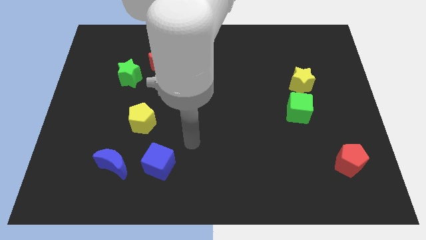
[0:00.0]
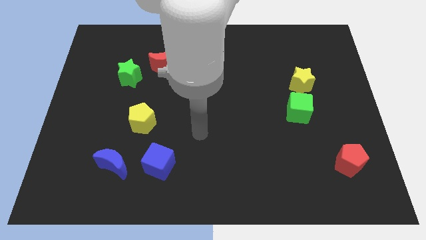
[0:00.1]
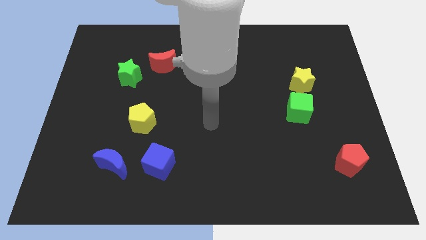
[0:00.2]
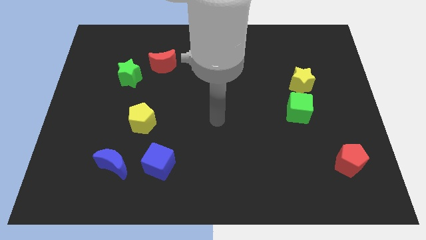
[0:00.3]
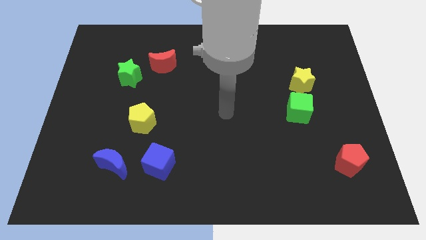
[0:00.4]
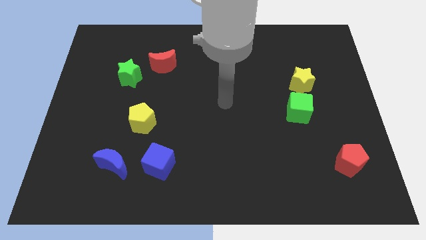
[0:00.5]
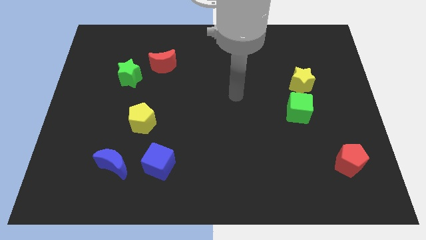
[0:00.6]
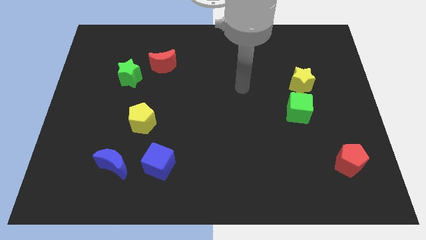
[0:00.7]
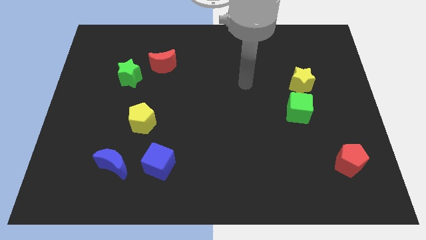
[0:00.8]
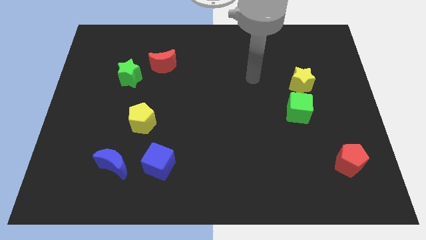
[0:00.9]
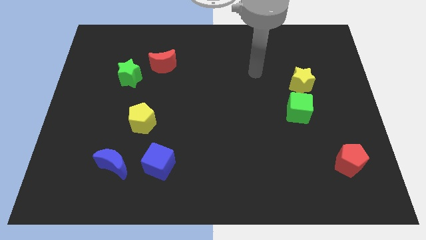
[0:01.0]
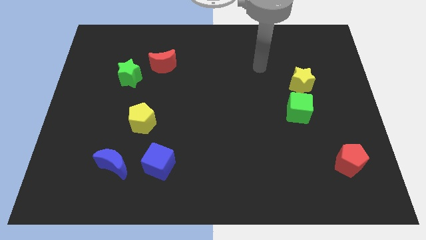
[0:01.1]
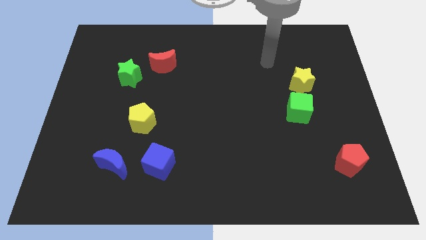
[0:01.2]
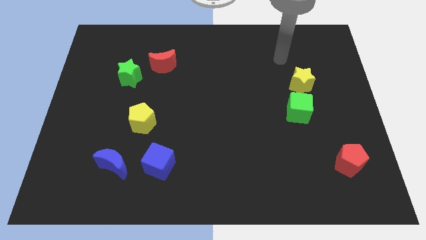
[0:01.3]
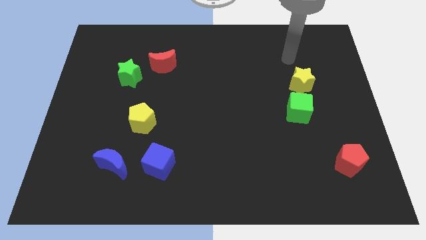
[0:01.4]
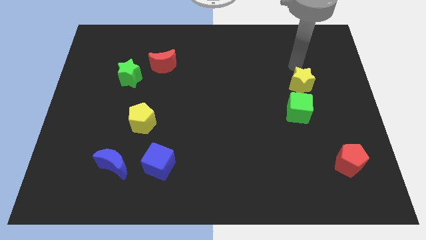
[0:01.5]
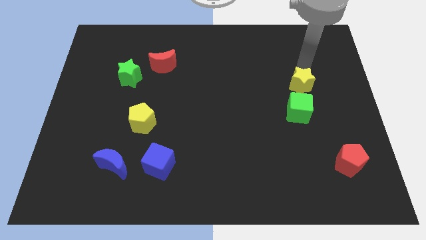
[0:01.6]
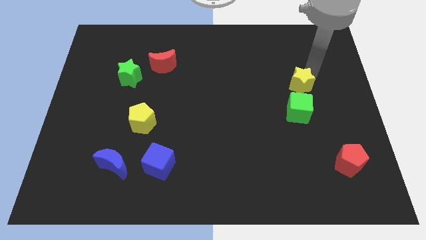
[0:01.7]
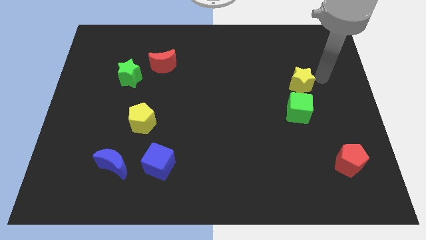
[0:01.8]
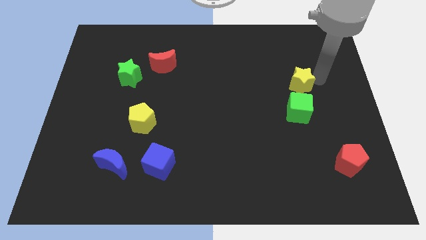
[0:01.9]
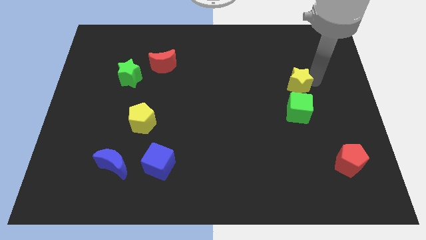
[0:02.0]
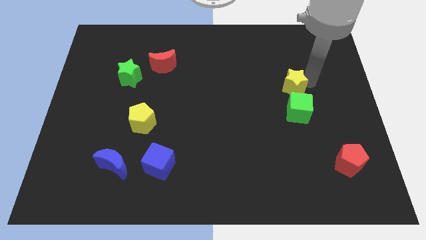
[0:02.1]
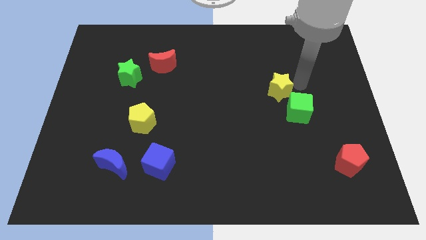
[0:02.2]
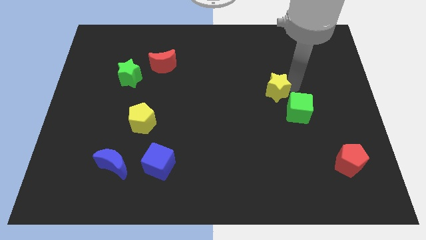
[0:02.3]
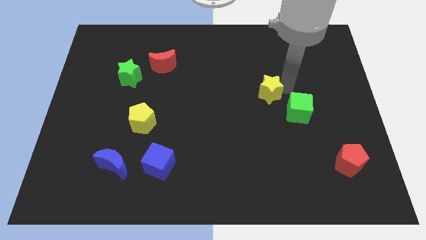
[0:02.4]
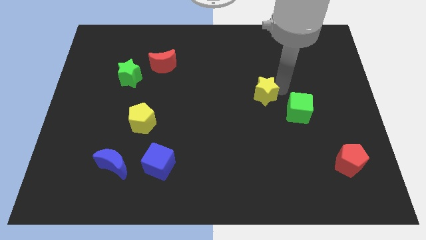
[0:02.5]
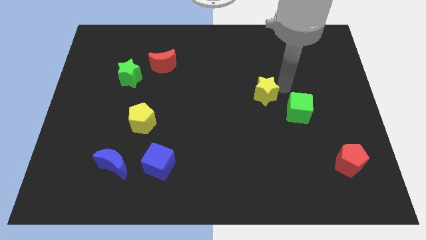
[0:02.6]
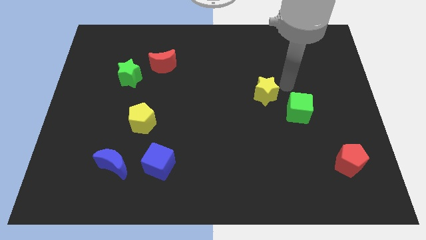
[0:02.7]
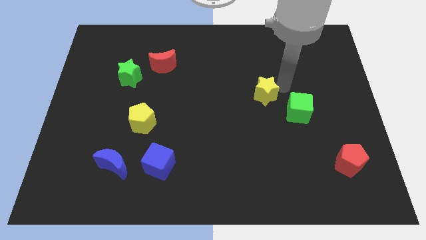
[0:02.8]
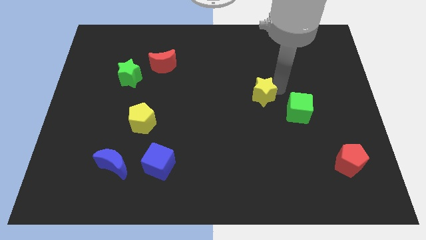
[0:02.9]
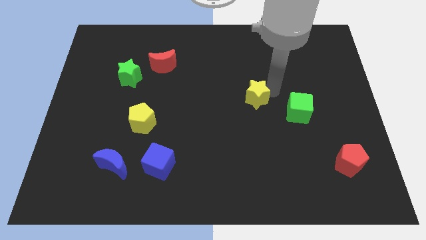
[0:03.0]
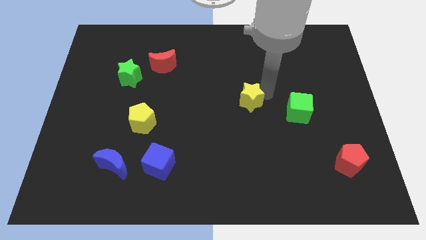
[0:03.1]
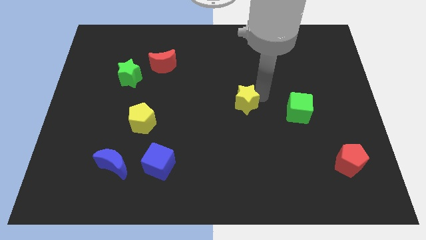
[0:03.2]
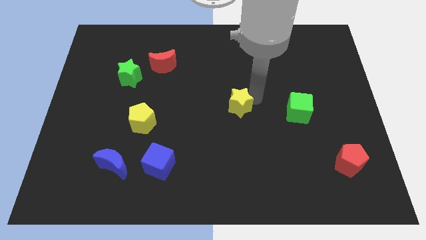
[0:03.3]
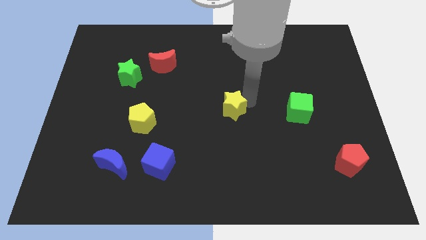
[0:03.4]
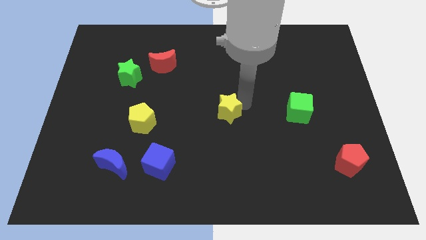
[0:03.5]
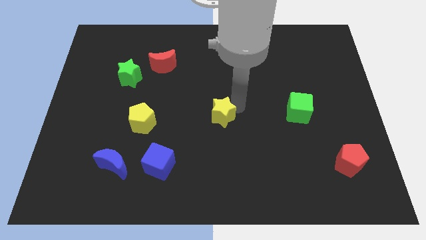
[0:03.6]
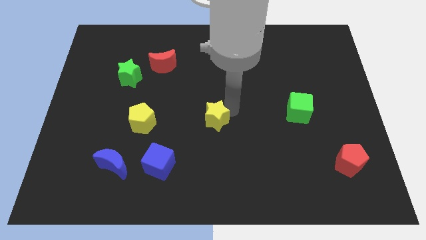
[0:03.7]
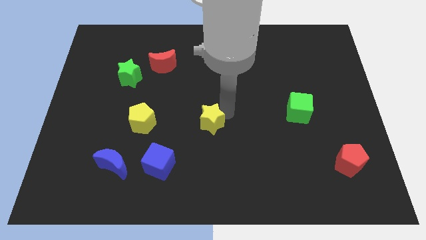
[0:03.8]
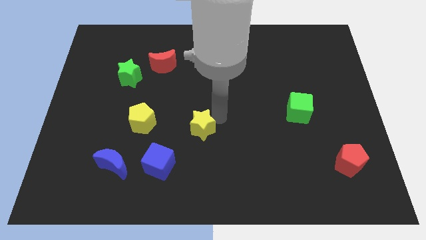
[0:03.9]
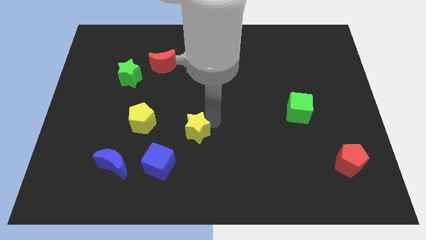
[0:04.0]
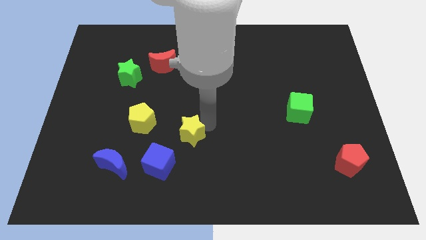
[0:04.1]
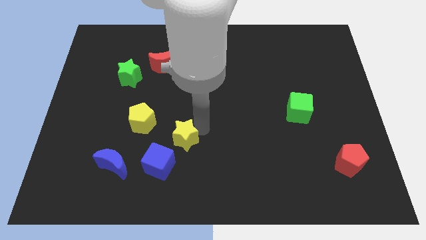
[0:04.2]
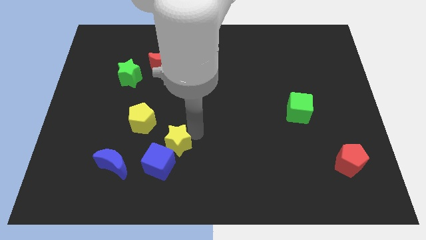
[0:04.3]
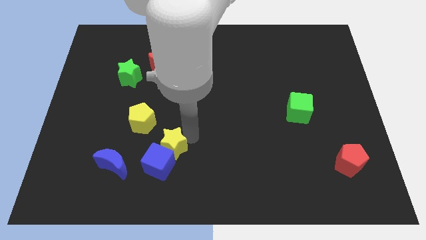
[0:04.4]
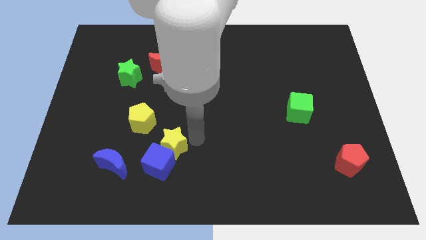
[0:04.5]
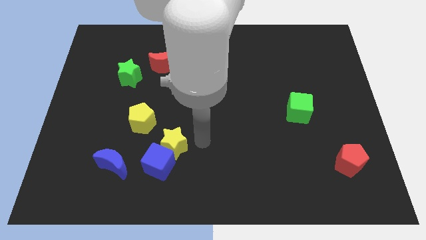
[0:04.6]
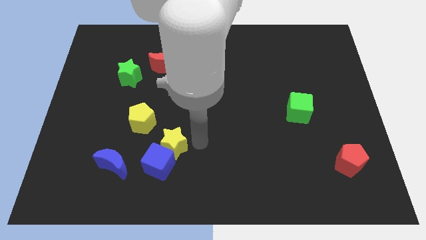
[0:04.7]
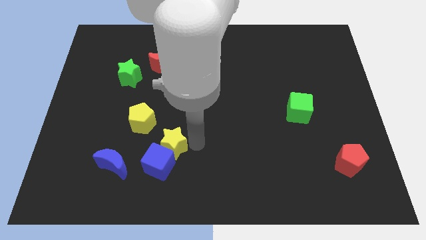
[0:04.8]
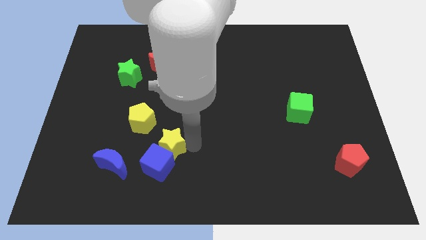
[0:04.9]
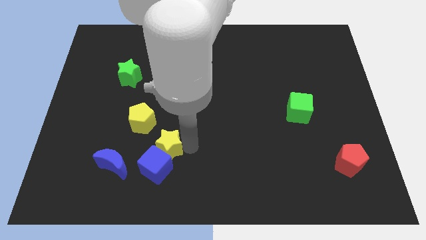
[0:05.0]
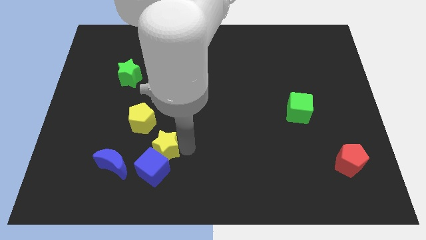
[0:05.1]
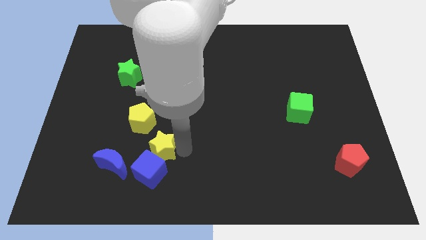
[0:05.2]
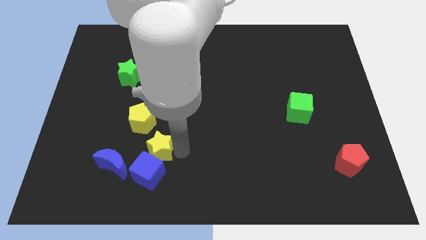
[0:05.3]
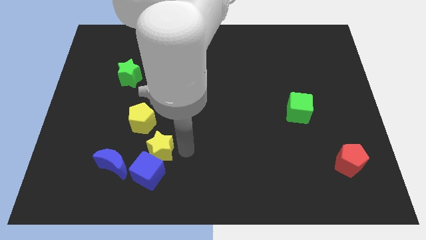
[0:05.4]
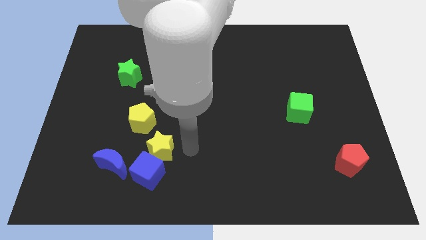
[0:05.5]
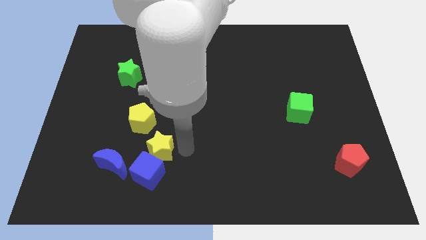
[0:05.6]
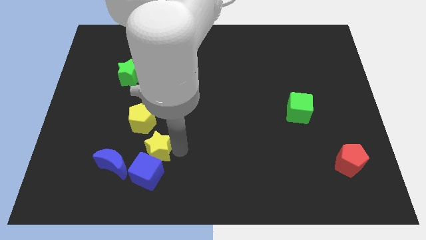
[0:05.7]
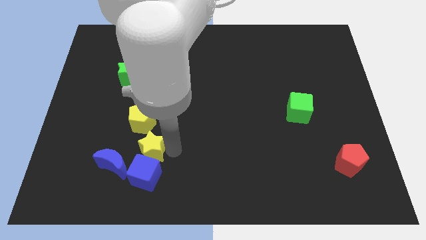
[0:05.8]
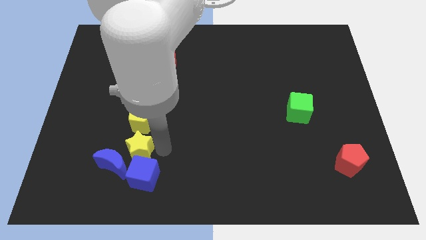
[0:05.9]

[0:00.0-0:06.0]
put the yellow star towards the blue moon

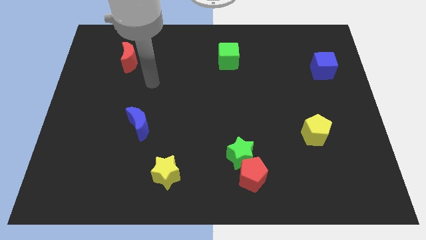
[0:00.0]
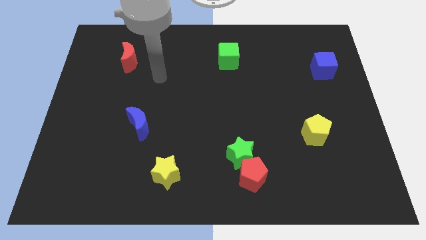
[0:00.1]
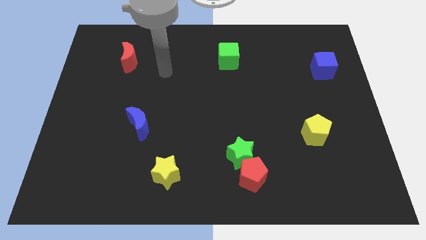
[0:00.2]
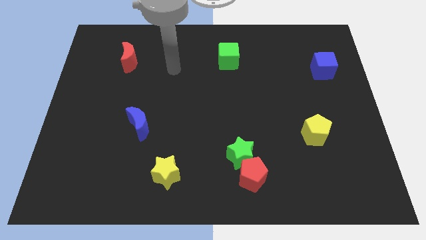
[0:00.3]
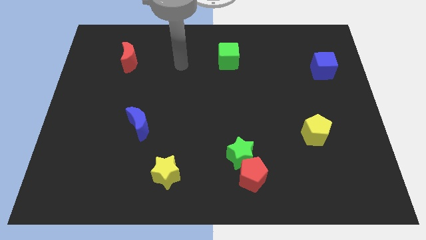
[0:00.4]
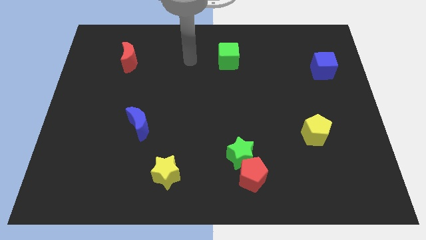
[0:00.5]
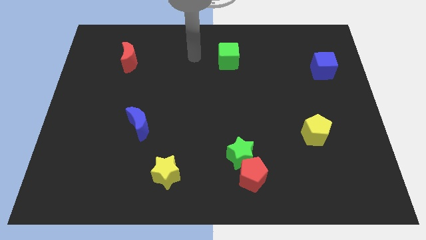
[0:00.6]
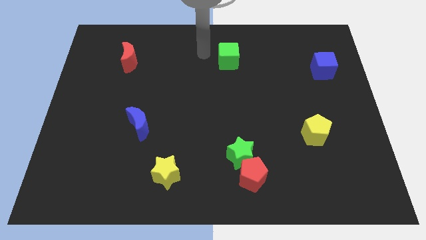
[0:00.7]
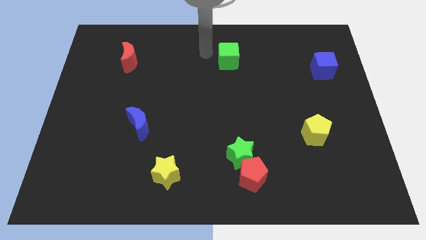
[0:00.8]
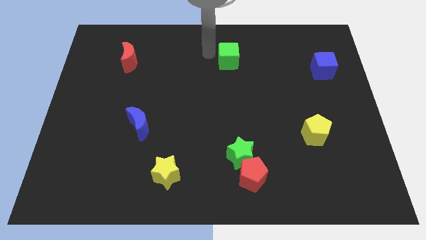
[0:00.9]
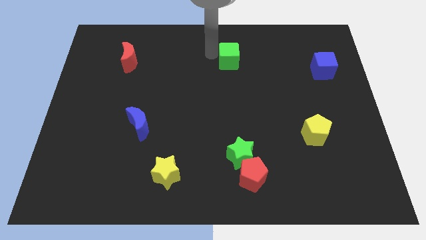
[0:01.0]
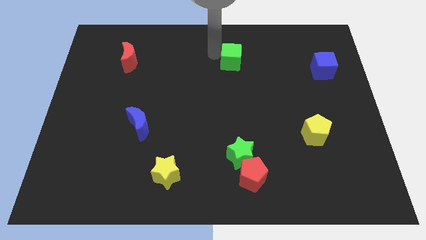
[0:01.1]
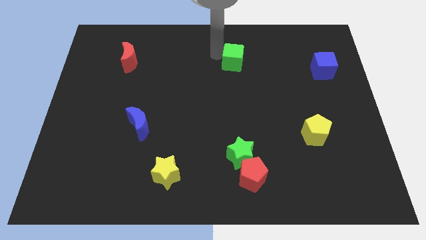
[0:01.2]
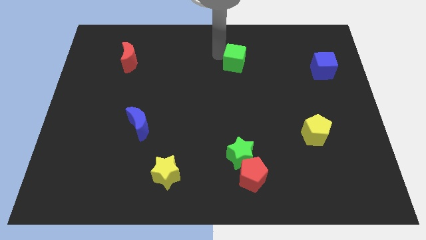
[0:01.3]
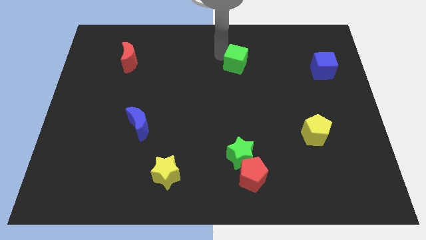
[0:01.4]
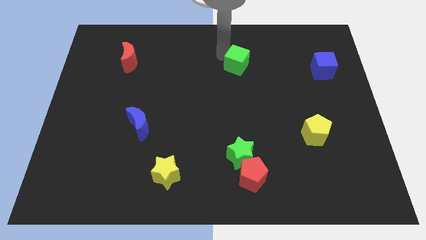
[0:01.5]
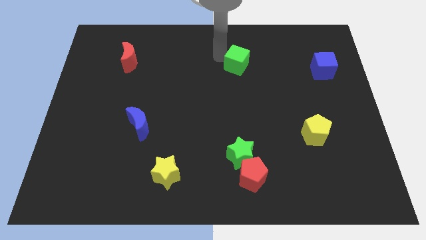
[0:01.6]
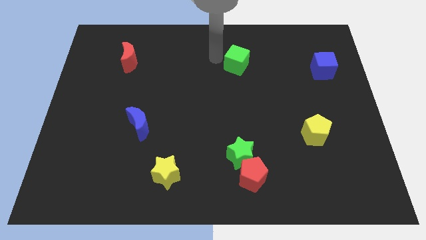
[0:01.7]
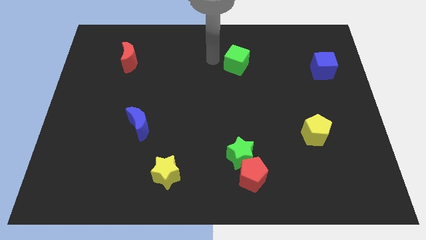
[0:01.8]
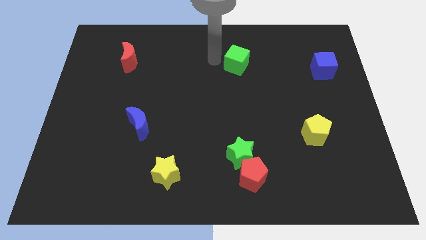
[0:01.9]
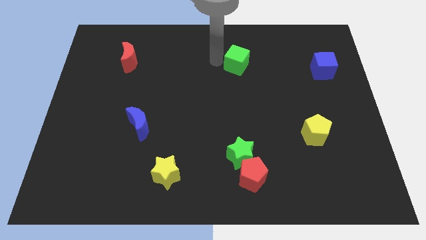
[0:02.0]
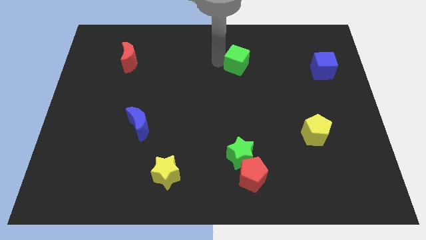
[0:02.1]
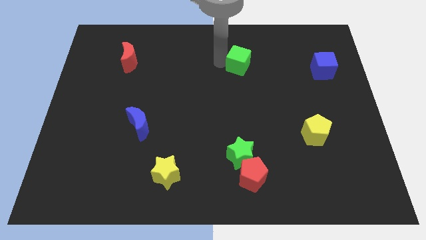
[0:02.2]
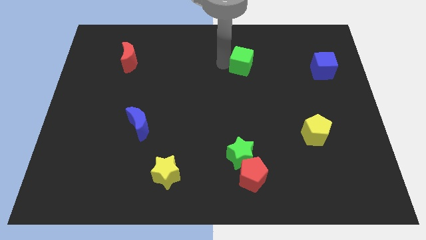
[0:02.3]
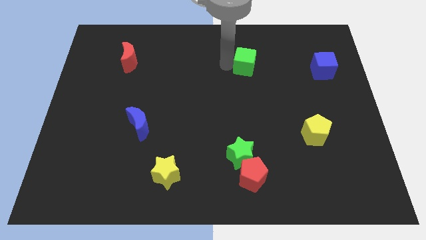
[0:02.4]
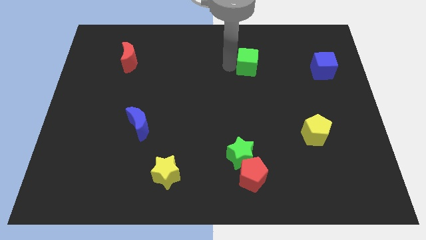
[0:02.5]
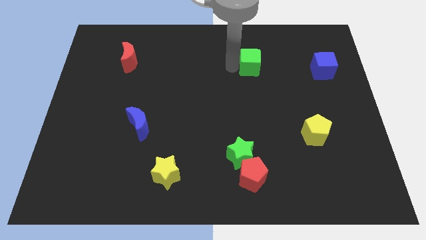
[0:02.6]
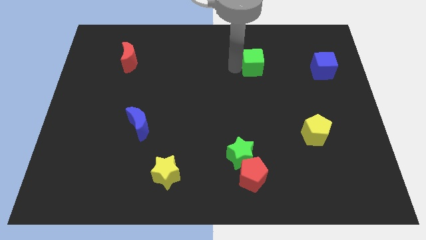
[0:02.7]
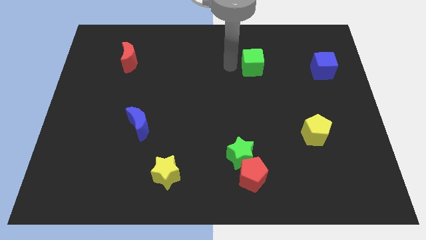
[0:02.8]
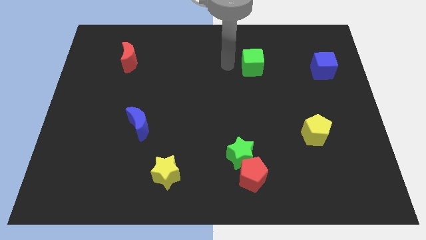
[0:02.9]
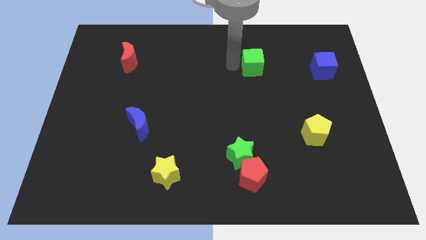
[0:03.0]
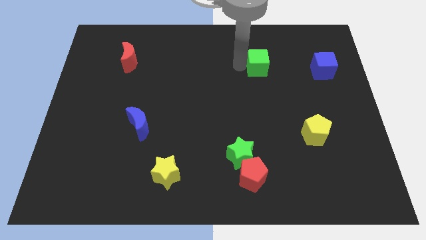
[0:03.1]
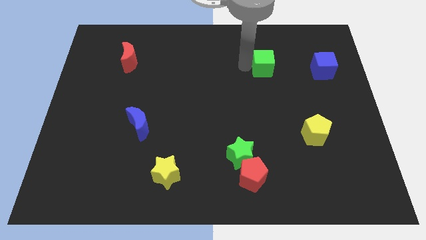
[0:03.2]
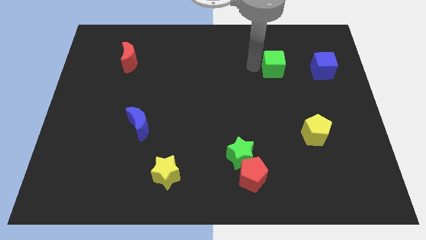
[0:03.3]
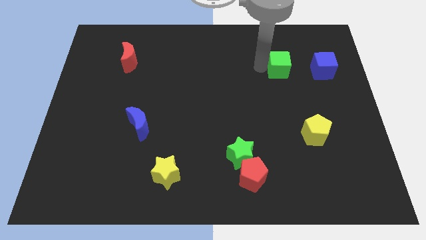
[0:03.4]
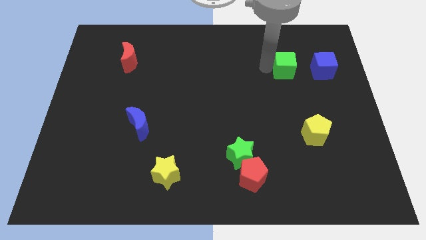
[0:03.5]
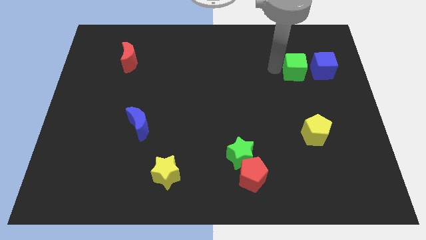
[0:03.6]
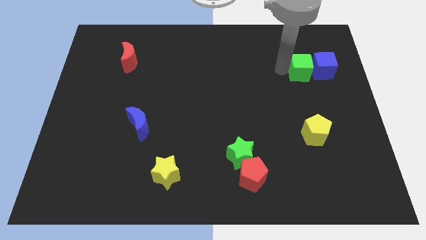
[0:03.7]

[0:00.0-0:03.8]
push the green cube towards the blue cube
